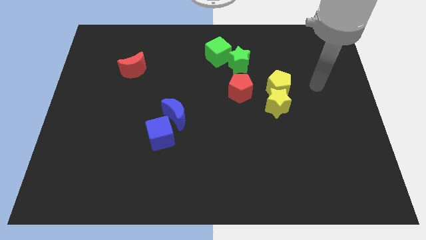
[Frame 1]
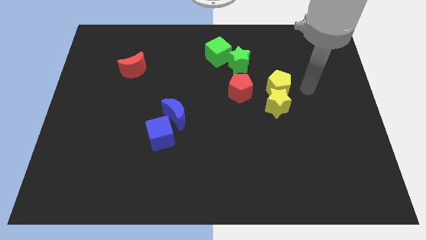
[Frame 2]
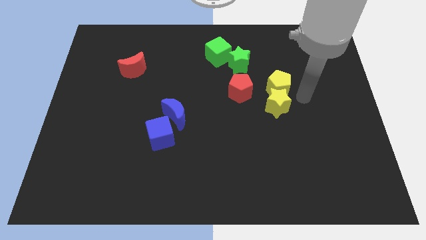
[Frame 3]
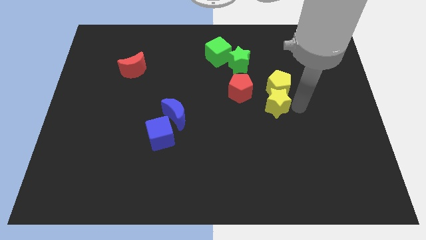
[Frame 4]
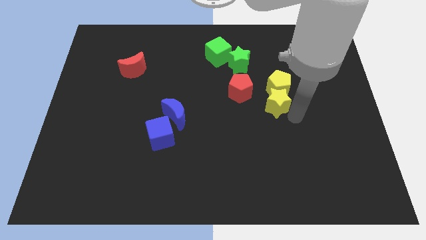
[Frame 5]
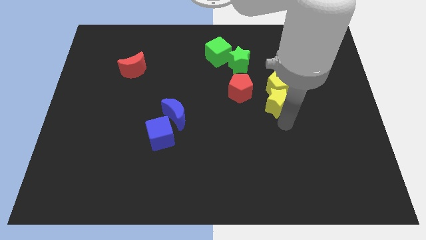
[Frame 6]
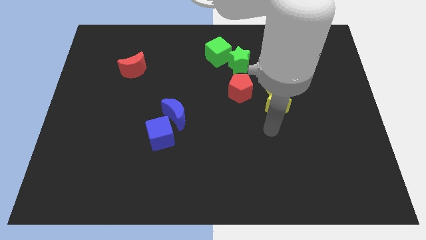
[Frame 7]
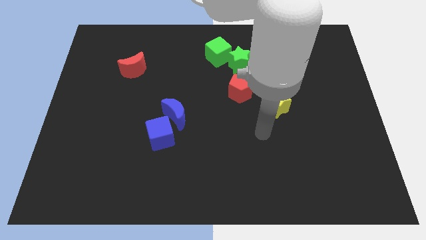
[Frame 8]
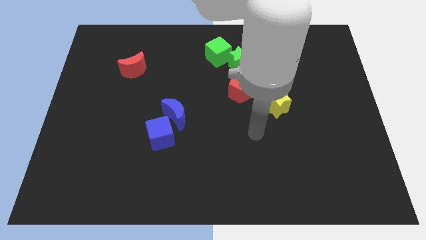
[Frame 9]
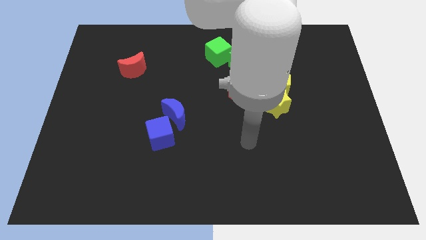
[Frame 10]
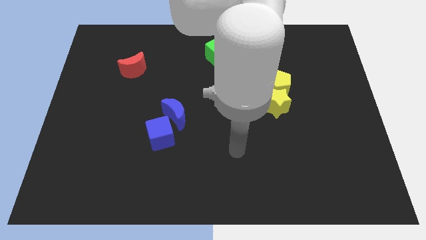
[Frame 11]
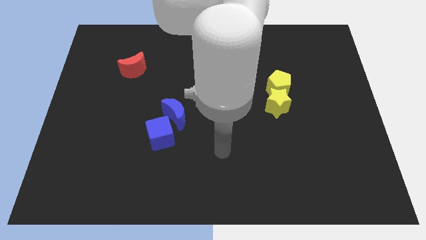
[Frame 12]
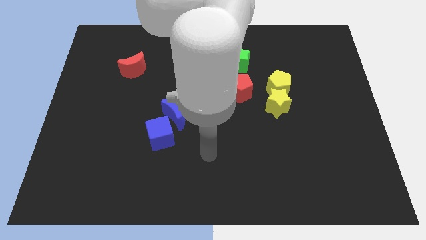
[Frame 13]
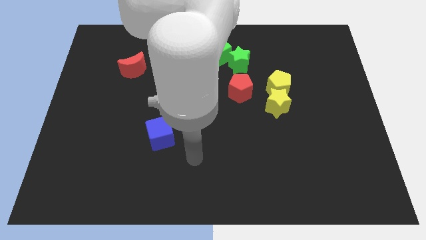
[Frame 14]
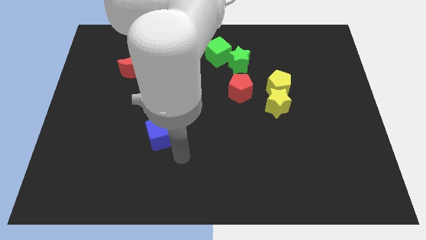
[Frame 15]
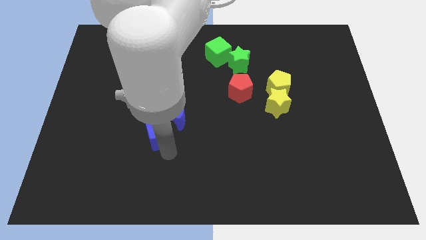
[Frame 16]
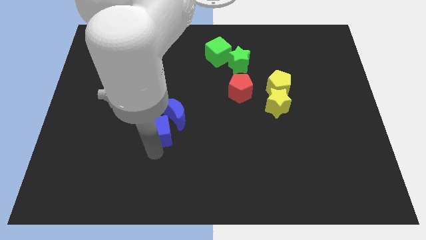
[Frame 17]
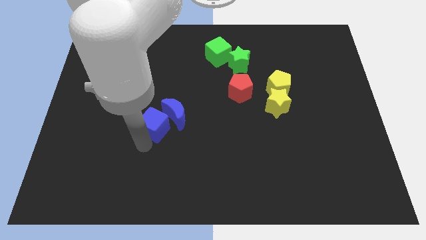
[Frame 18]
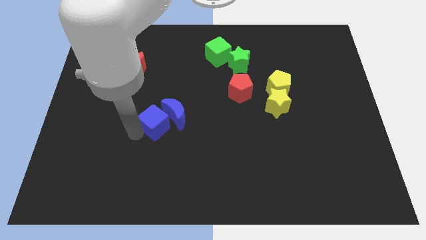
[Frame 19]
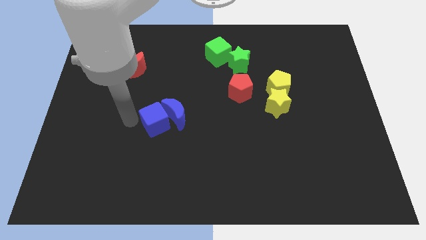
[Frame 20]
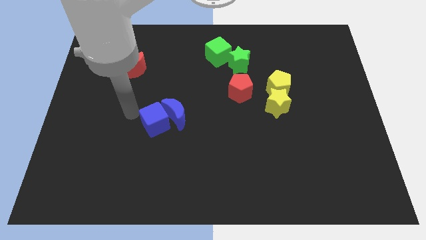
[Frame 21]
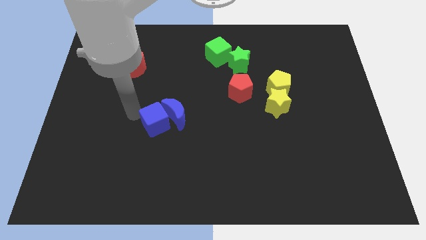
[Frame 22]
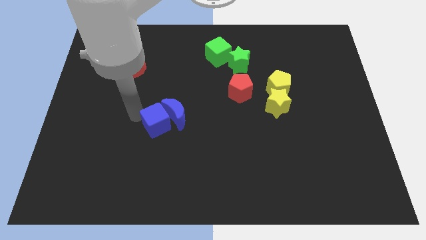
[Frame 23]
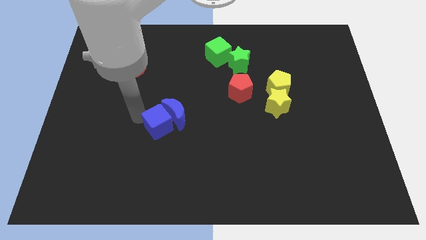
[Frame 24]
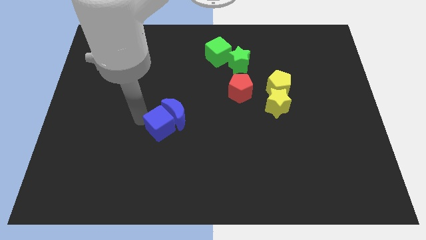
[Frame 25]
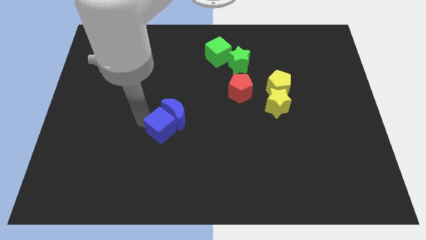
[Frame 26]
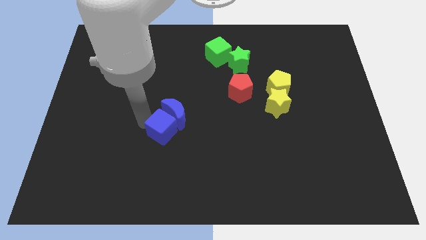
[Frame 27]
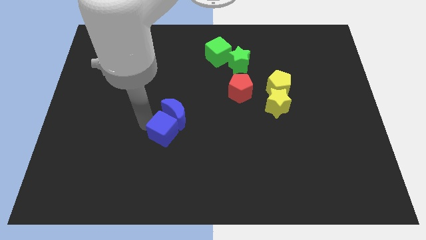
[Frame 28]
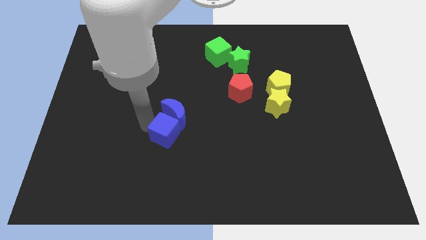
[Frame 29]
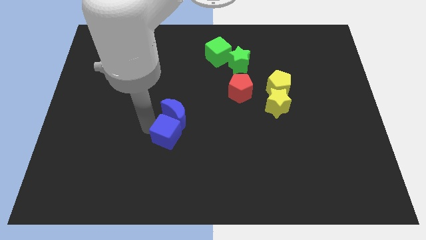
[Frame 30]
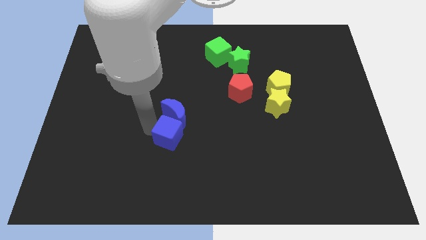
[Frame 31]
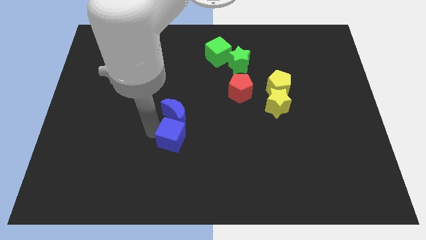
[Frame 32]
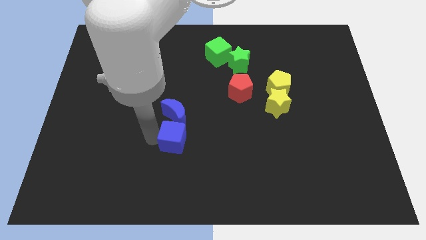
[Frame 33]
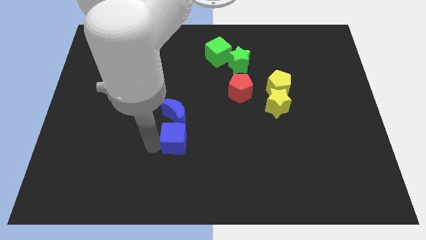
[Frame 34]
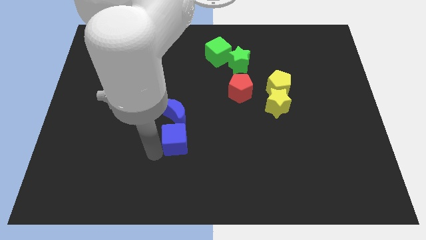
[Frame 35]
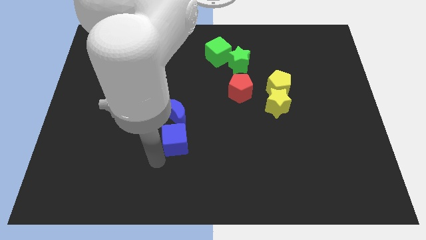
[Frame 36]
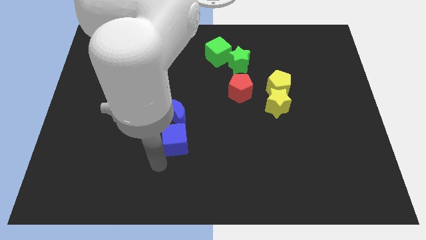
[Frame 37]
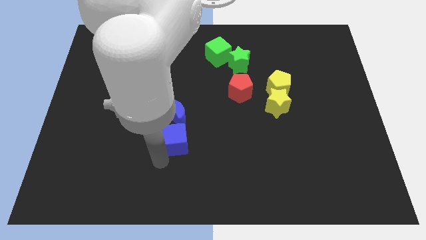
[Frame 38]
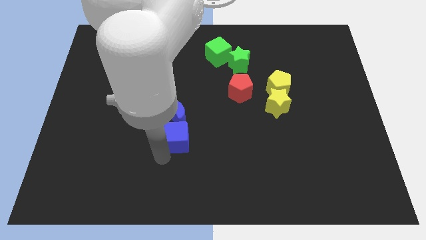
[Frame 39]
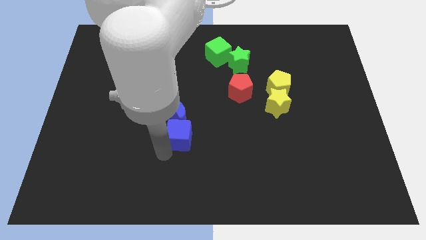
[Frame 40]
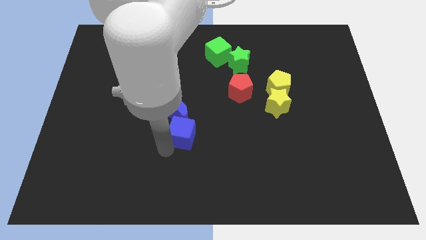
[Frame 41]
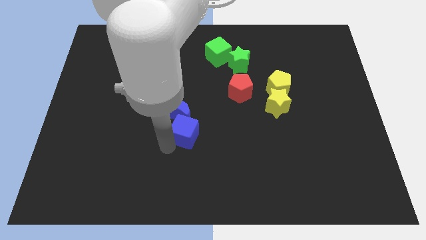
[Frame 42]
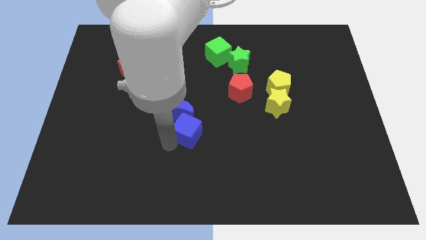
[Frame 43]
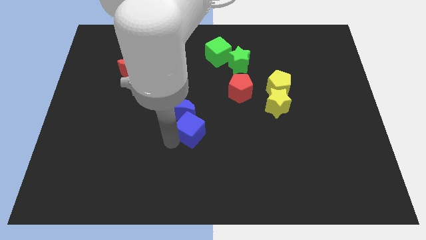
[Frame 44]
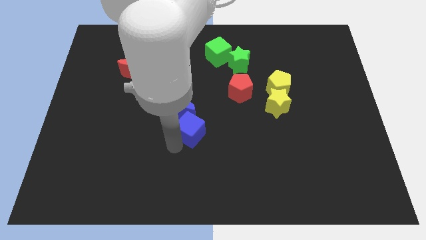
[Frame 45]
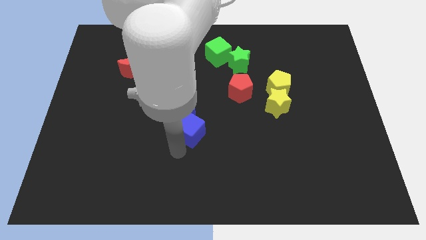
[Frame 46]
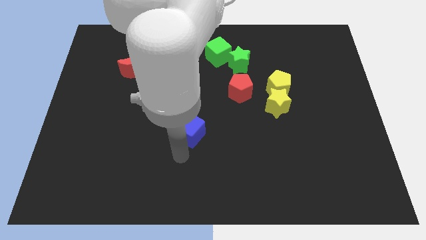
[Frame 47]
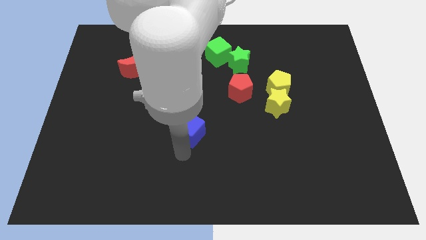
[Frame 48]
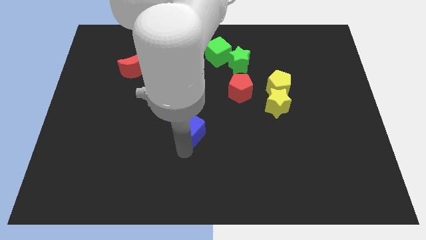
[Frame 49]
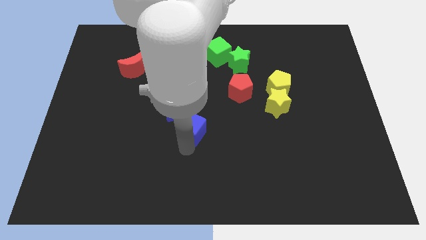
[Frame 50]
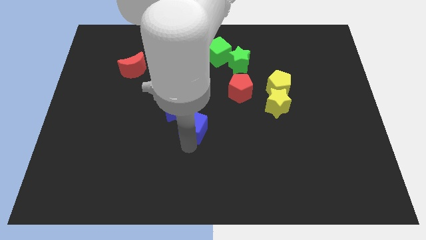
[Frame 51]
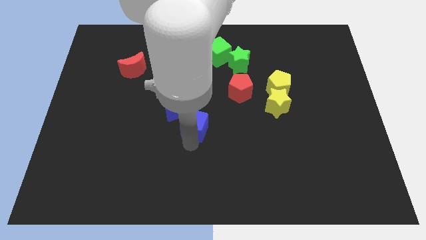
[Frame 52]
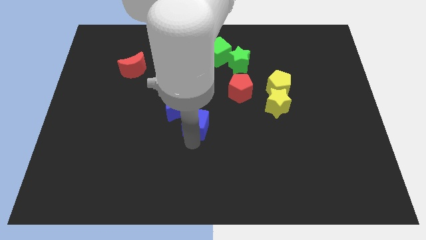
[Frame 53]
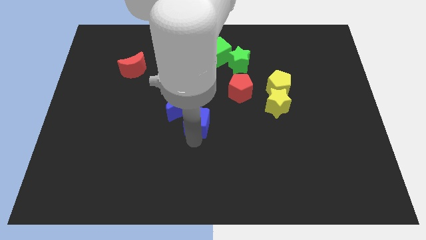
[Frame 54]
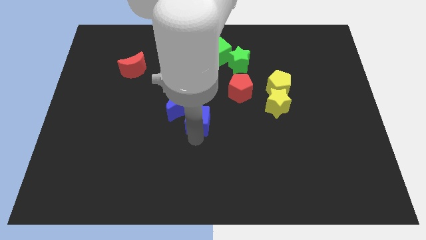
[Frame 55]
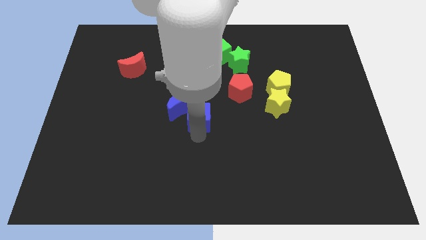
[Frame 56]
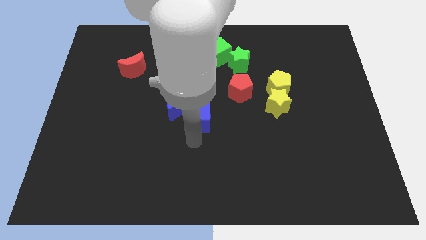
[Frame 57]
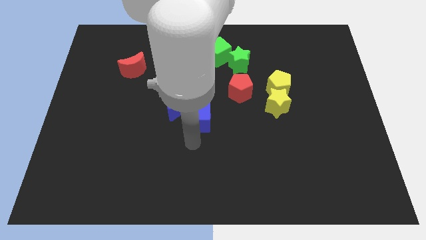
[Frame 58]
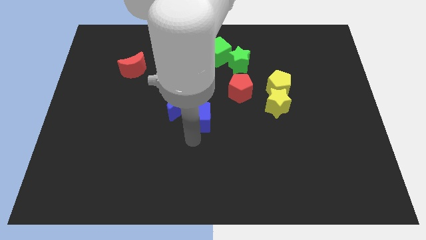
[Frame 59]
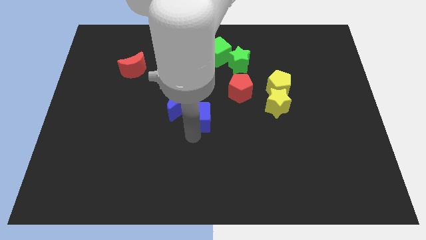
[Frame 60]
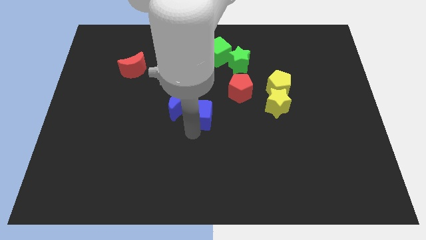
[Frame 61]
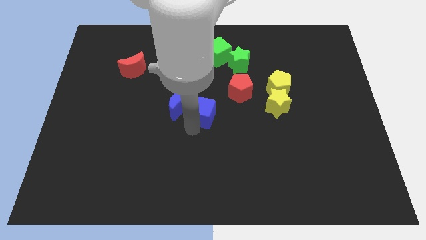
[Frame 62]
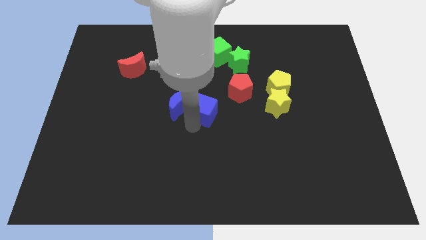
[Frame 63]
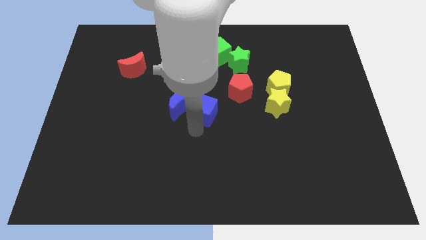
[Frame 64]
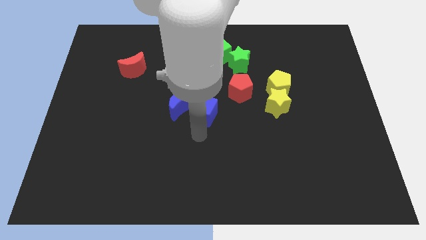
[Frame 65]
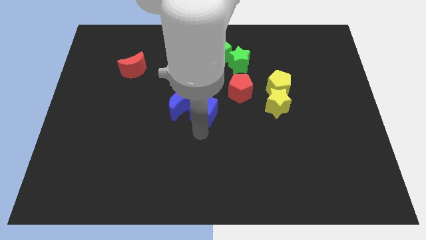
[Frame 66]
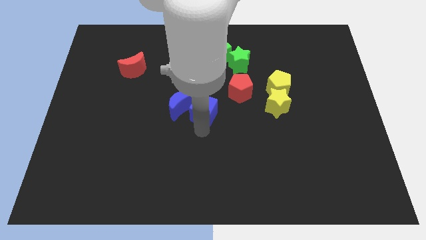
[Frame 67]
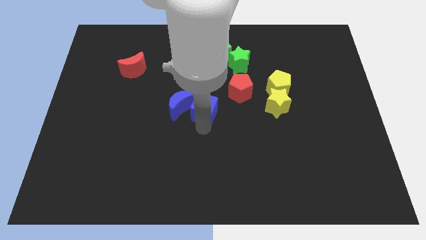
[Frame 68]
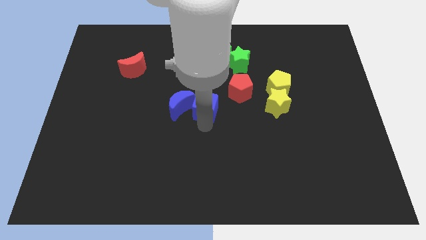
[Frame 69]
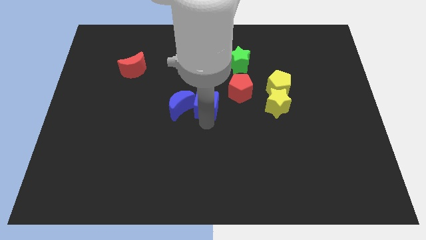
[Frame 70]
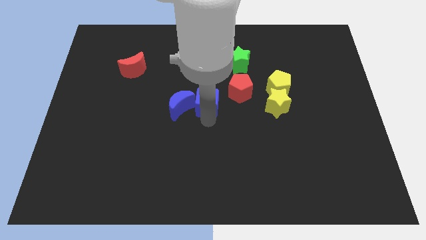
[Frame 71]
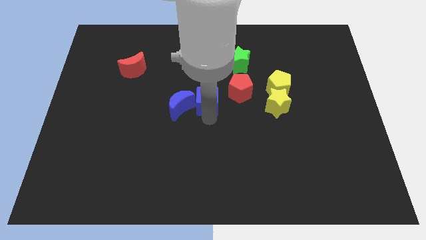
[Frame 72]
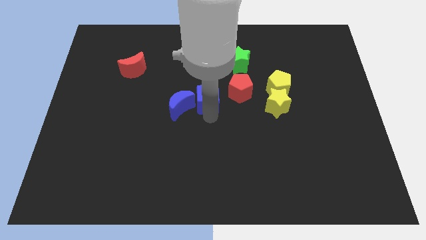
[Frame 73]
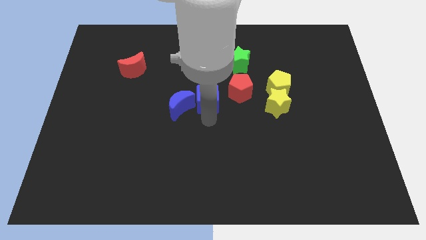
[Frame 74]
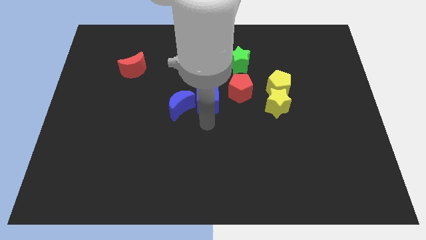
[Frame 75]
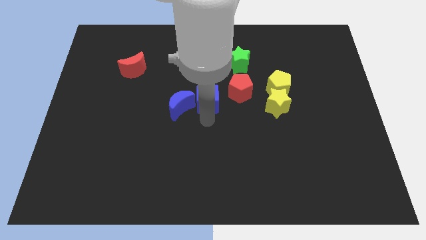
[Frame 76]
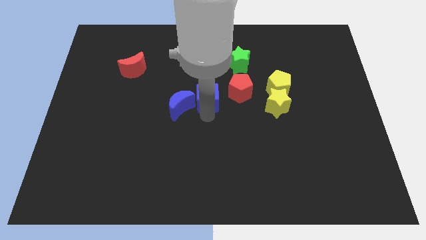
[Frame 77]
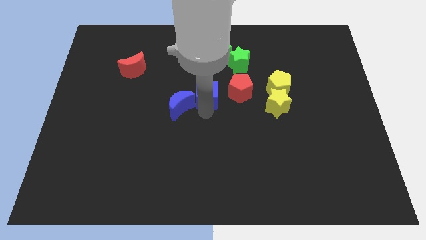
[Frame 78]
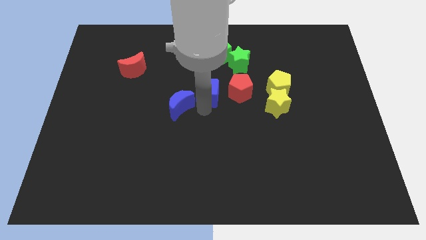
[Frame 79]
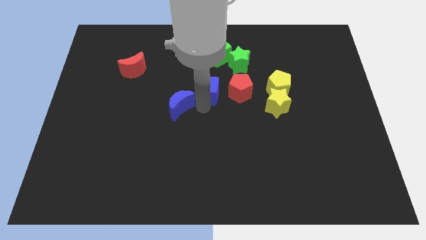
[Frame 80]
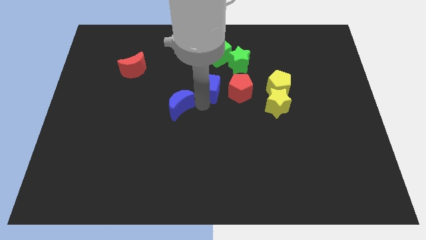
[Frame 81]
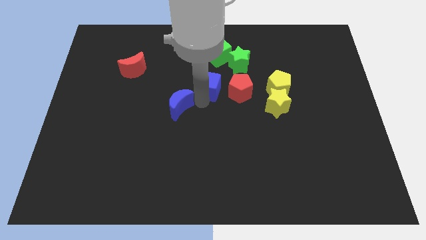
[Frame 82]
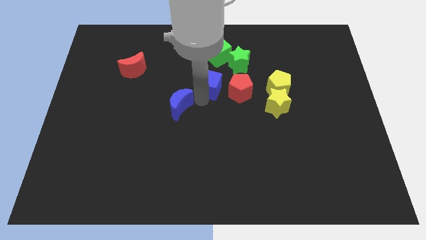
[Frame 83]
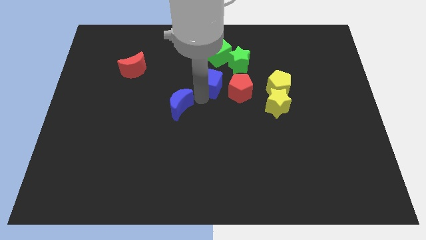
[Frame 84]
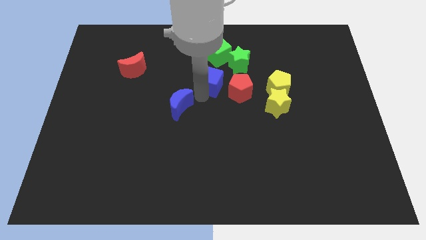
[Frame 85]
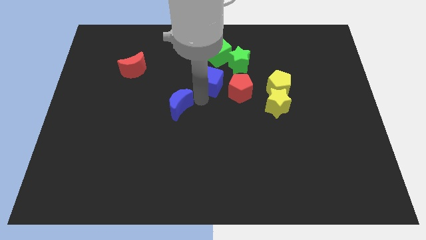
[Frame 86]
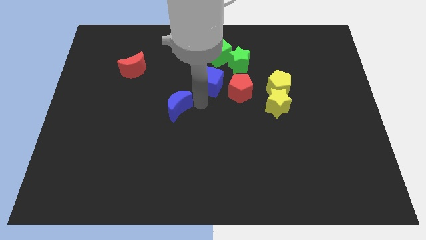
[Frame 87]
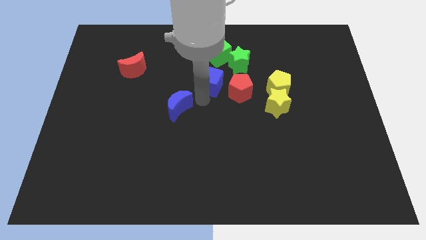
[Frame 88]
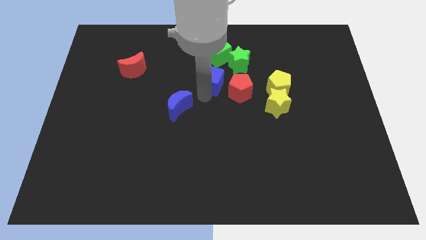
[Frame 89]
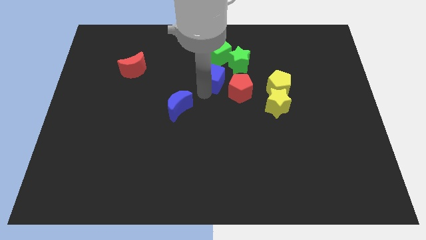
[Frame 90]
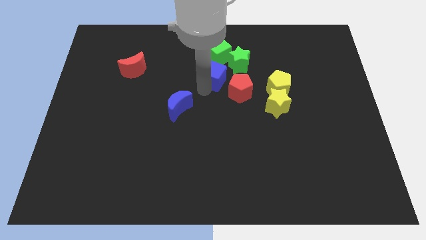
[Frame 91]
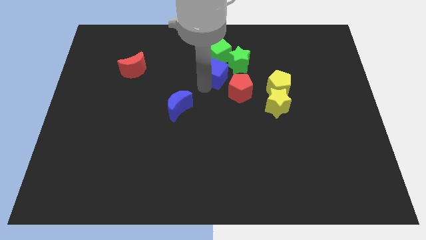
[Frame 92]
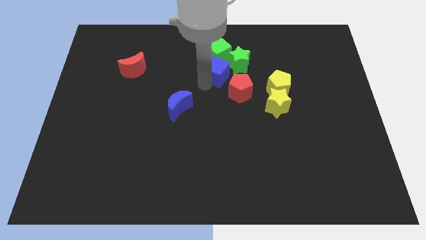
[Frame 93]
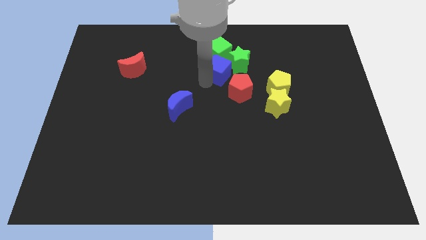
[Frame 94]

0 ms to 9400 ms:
slide the blue cube to the green star
